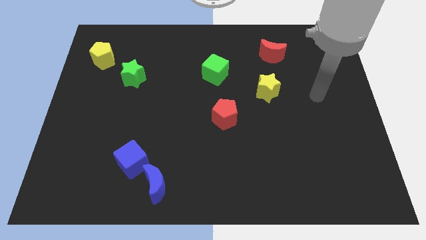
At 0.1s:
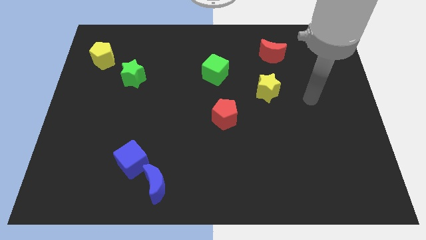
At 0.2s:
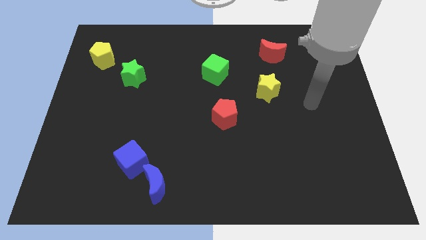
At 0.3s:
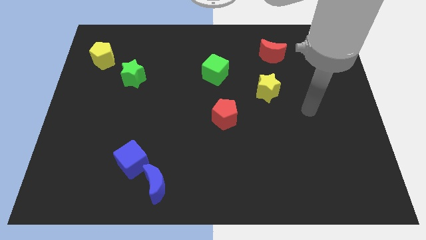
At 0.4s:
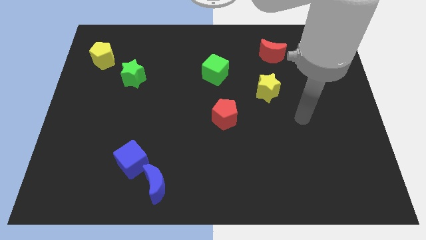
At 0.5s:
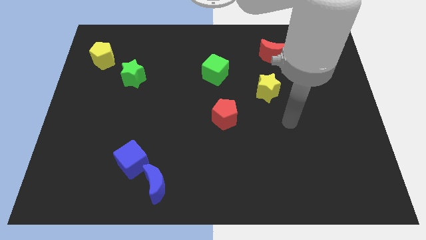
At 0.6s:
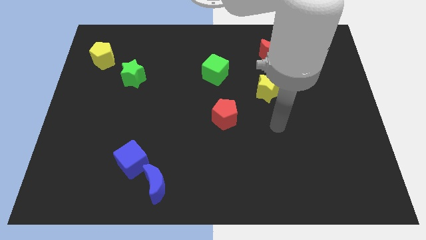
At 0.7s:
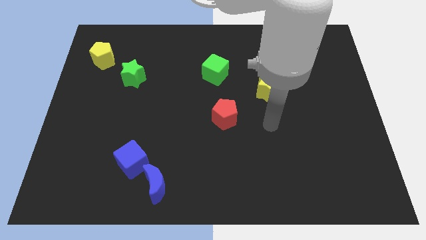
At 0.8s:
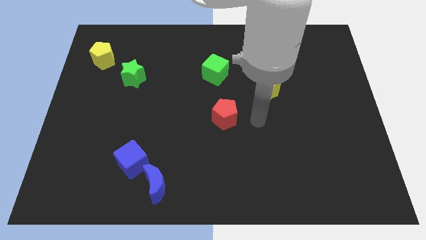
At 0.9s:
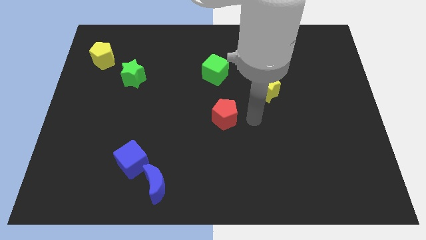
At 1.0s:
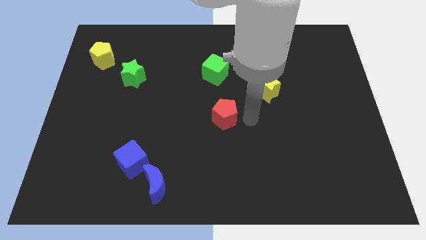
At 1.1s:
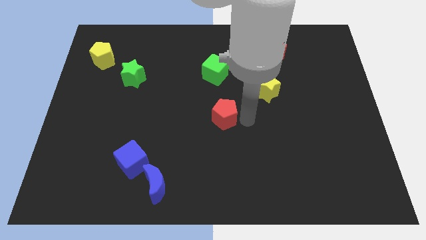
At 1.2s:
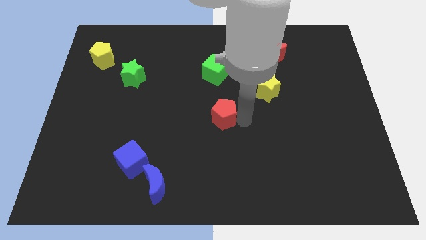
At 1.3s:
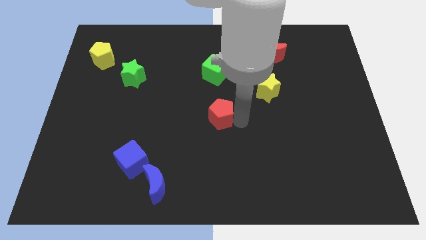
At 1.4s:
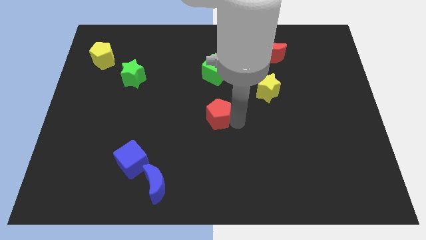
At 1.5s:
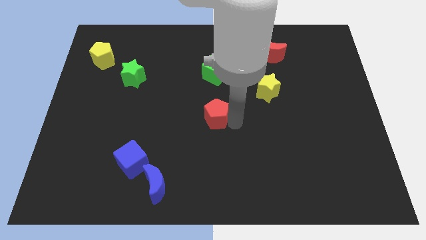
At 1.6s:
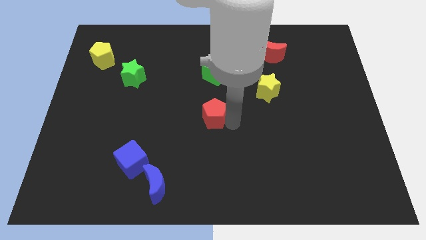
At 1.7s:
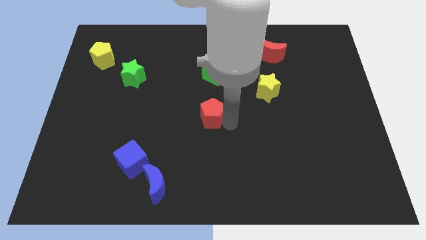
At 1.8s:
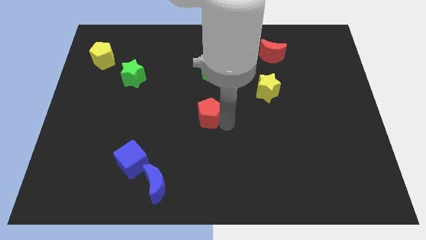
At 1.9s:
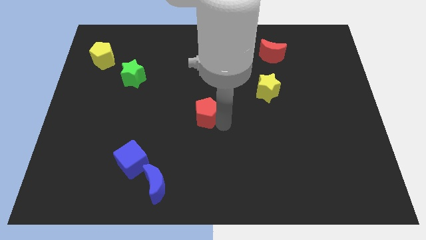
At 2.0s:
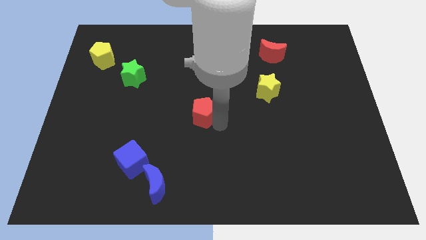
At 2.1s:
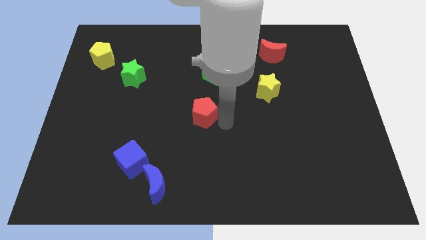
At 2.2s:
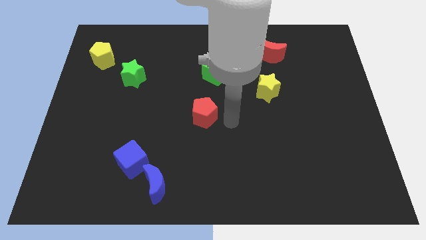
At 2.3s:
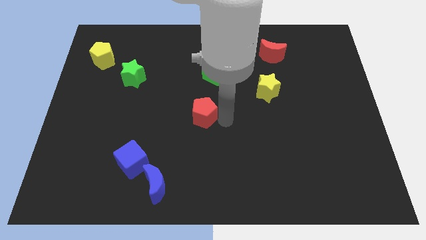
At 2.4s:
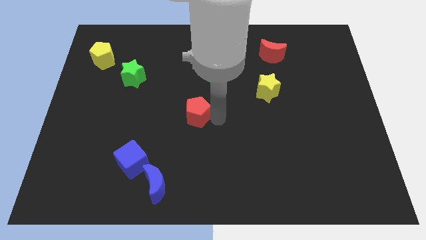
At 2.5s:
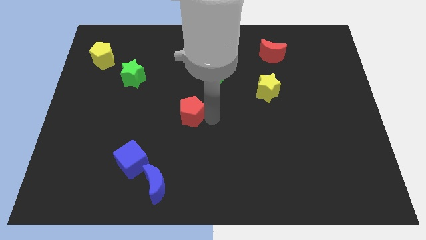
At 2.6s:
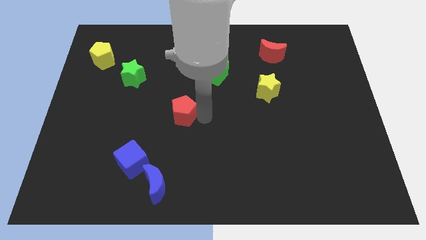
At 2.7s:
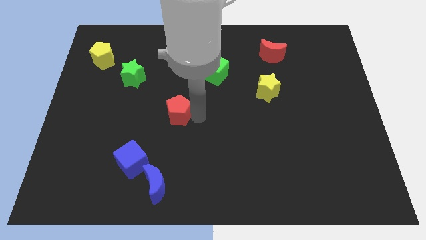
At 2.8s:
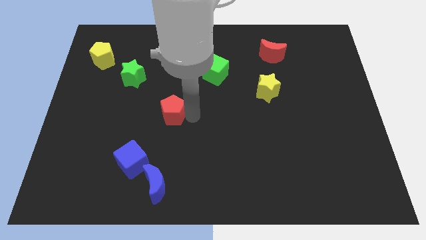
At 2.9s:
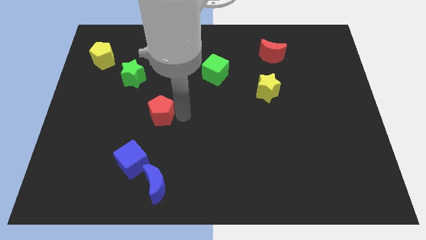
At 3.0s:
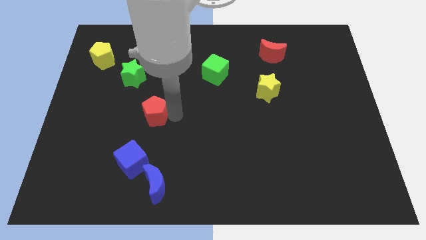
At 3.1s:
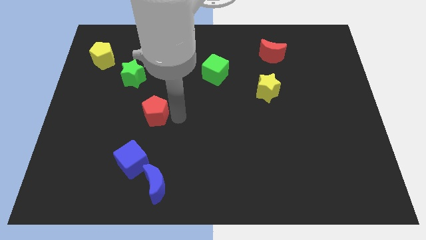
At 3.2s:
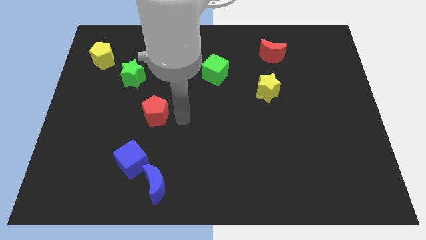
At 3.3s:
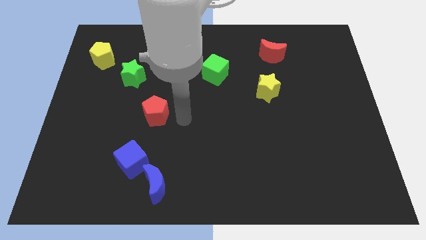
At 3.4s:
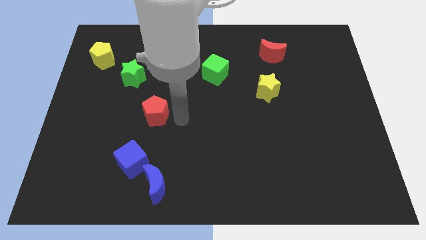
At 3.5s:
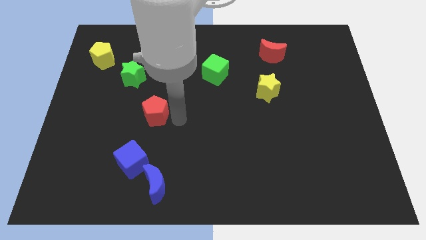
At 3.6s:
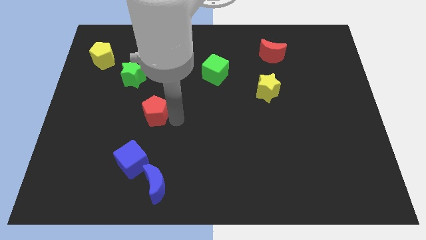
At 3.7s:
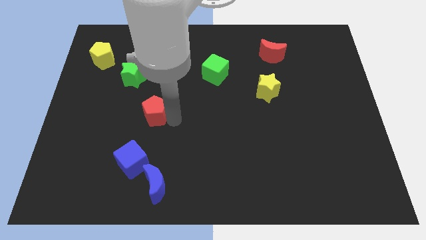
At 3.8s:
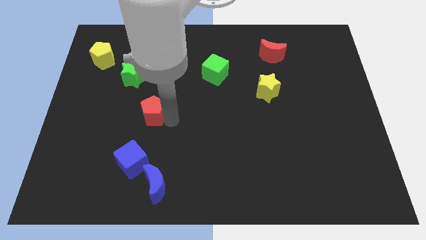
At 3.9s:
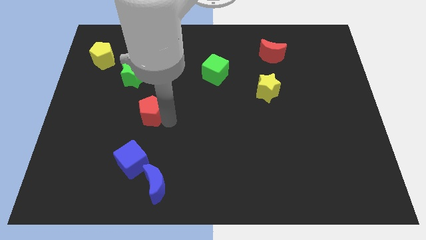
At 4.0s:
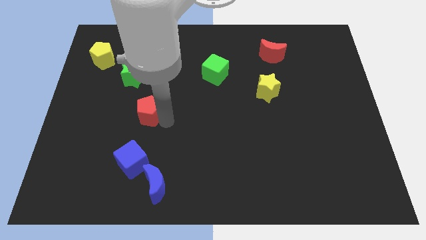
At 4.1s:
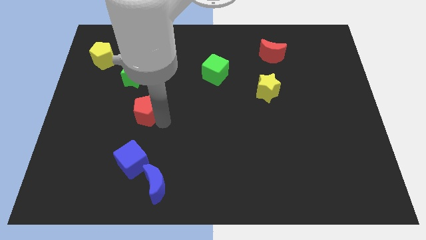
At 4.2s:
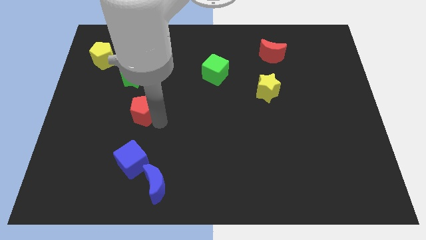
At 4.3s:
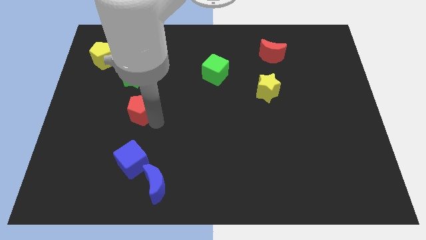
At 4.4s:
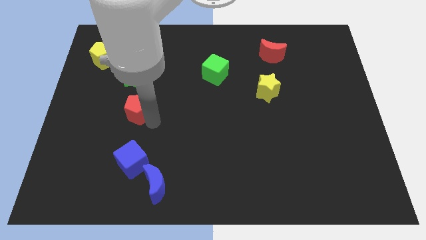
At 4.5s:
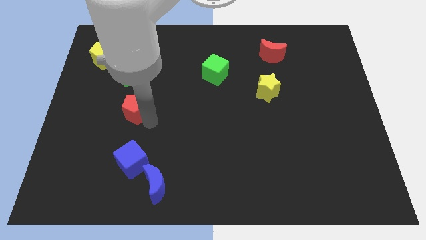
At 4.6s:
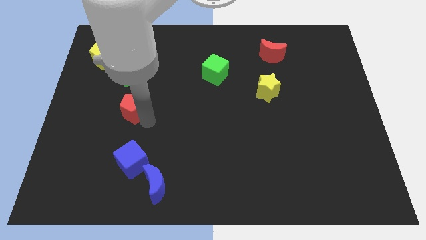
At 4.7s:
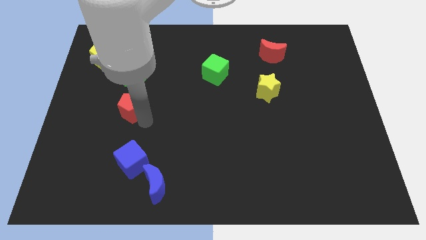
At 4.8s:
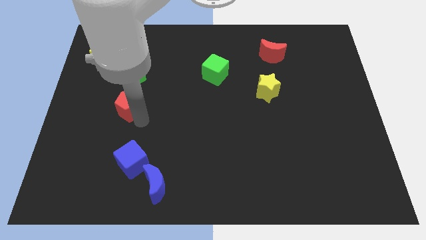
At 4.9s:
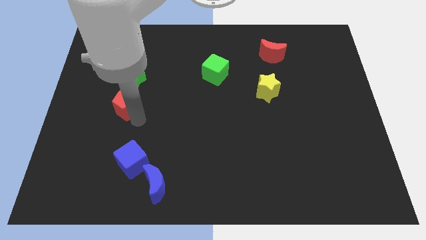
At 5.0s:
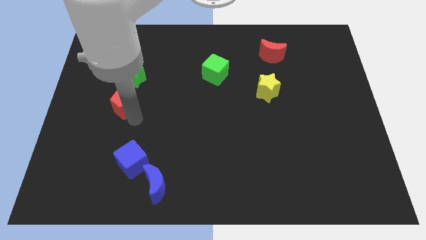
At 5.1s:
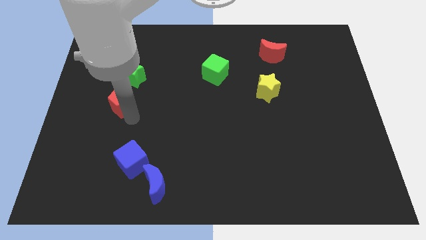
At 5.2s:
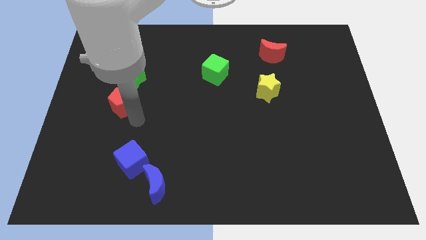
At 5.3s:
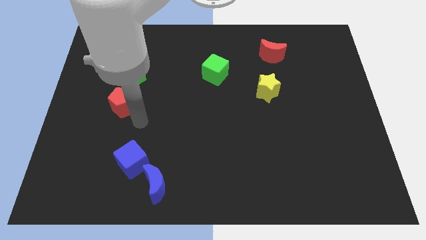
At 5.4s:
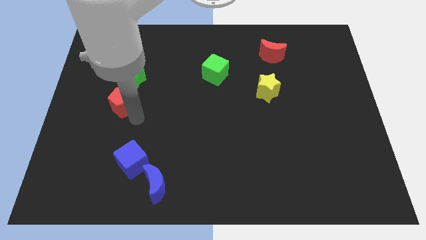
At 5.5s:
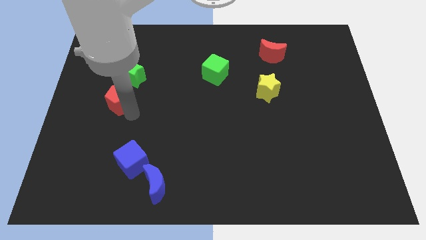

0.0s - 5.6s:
move the red pentagon diagonally down and to the left of the green star

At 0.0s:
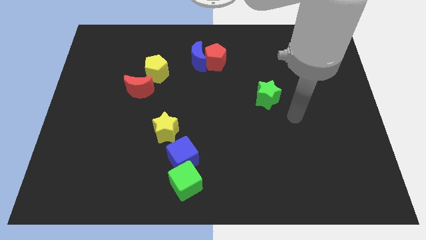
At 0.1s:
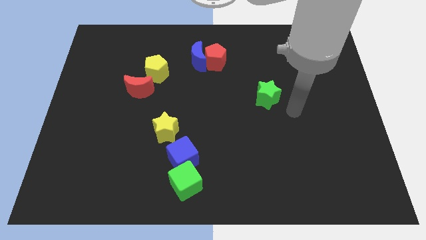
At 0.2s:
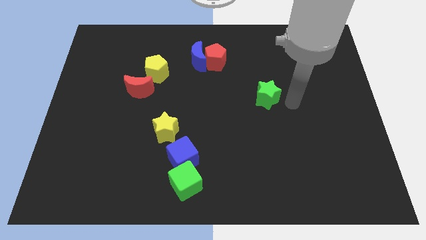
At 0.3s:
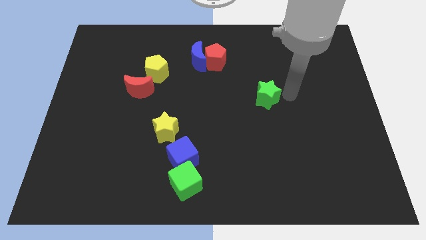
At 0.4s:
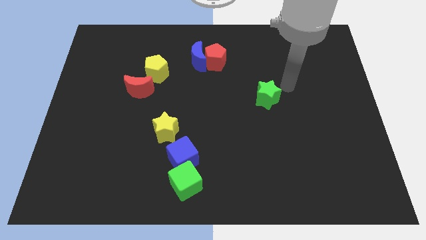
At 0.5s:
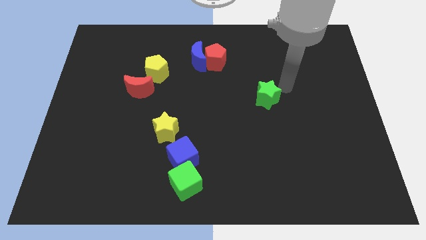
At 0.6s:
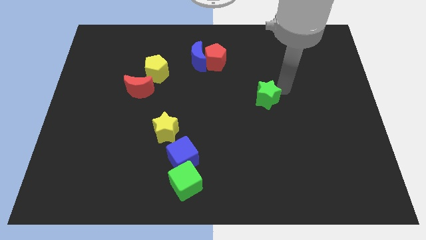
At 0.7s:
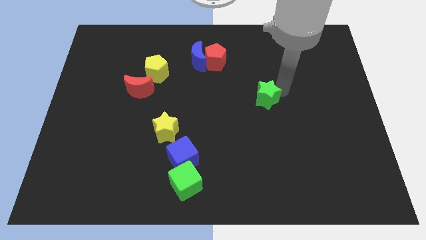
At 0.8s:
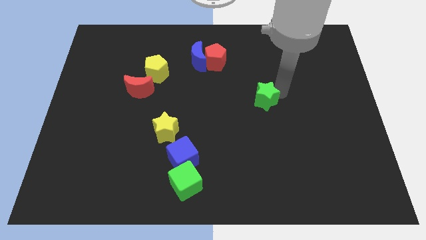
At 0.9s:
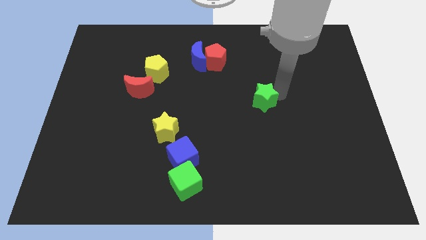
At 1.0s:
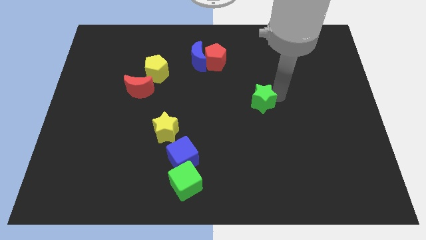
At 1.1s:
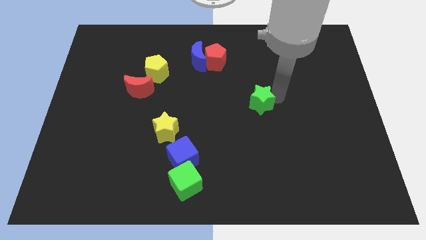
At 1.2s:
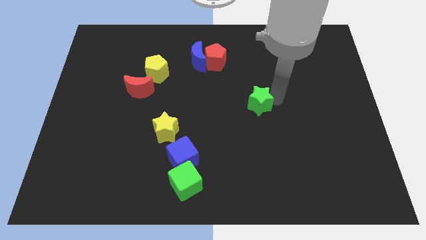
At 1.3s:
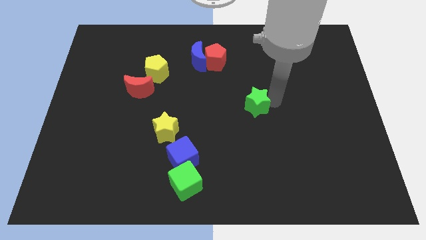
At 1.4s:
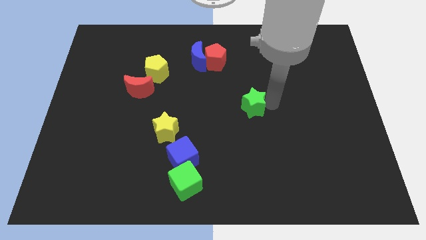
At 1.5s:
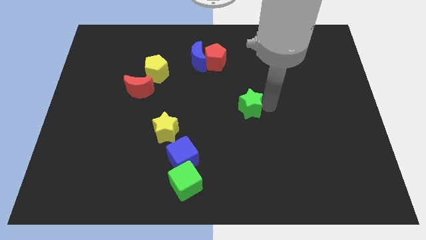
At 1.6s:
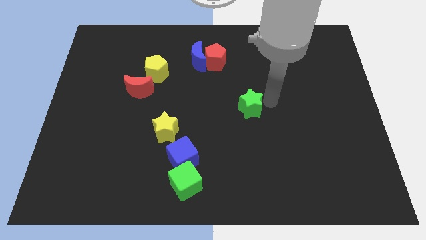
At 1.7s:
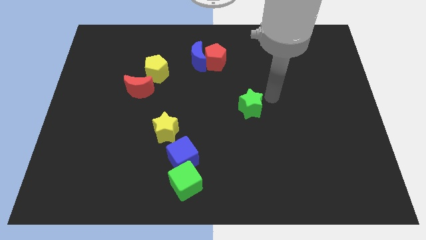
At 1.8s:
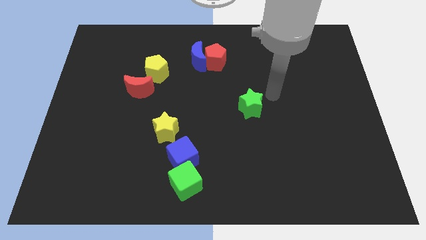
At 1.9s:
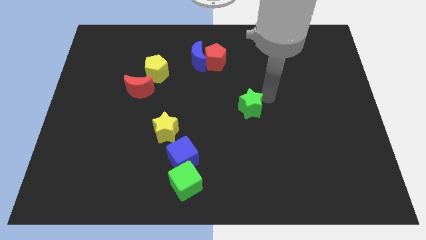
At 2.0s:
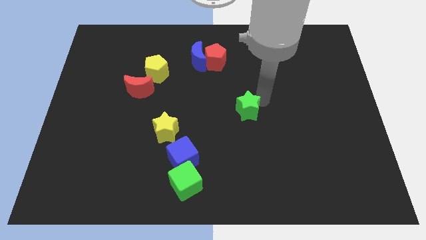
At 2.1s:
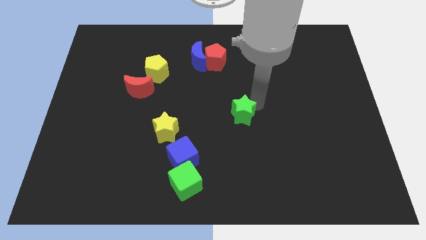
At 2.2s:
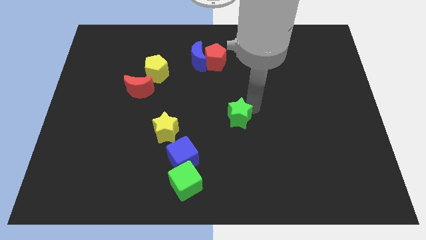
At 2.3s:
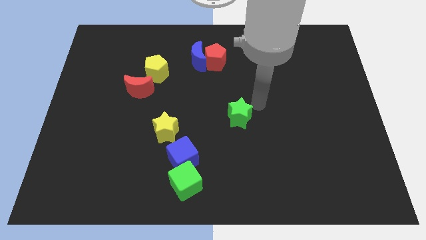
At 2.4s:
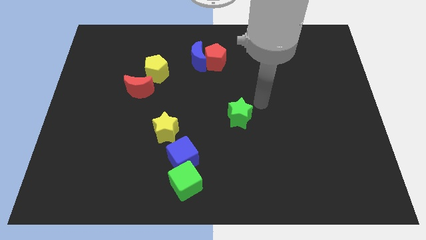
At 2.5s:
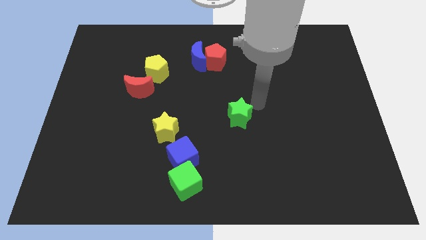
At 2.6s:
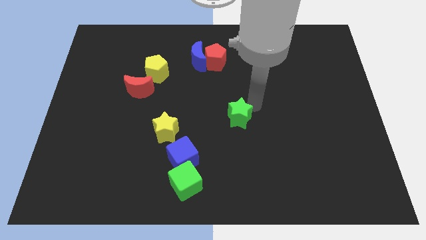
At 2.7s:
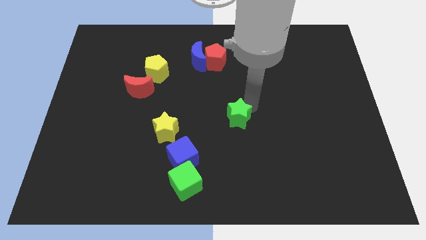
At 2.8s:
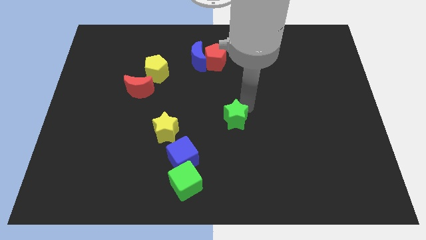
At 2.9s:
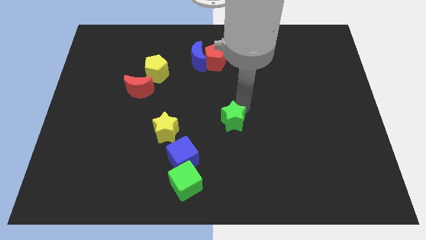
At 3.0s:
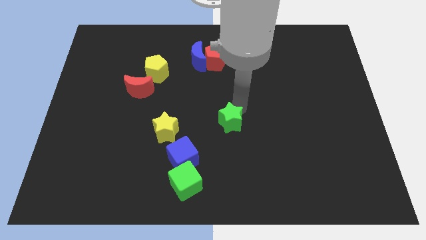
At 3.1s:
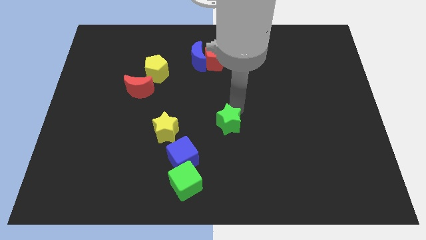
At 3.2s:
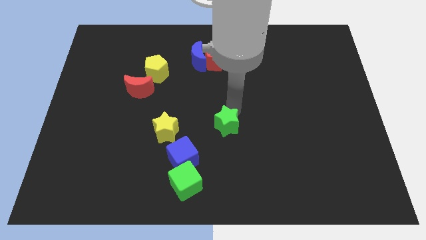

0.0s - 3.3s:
put the green star diagonally up and to the right of the blue cube
